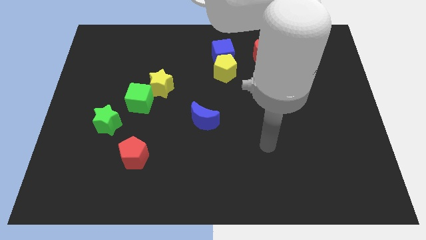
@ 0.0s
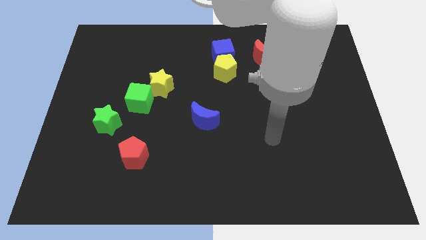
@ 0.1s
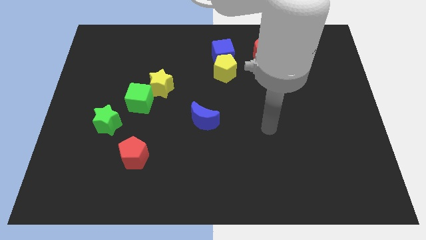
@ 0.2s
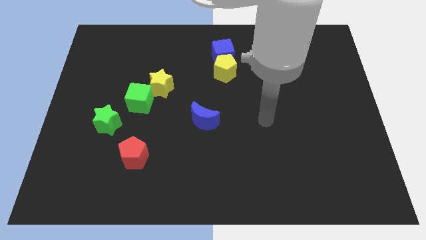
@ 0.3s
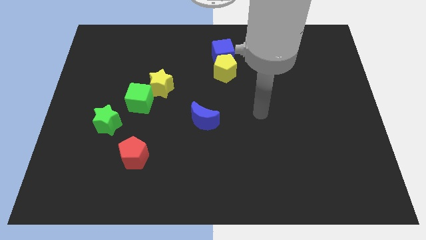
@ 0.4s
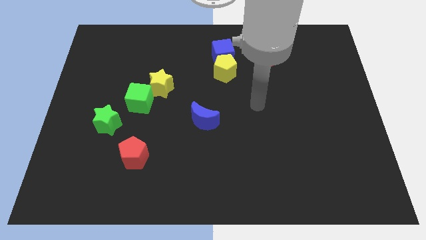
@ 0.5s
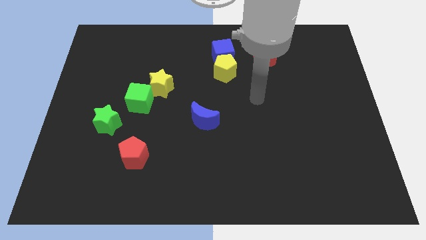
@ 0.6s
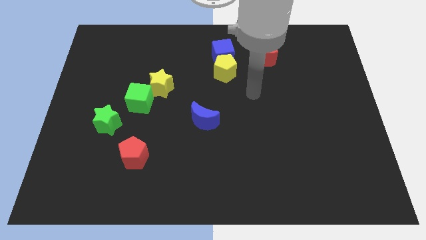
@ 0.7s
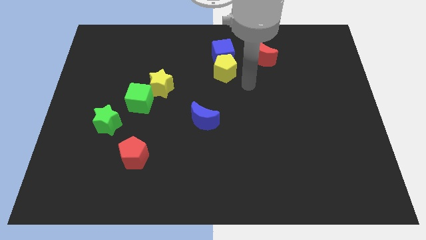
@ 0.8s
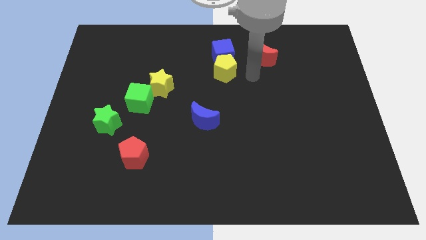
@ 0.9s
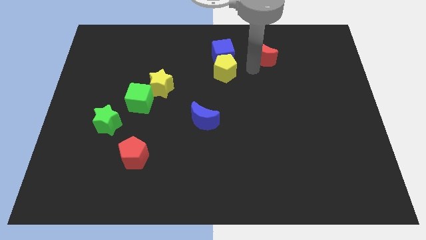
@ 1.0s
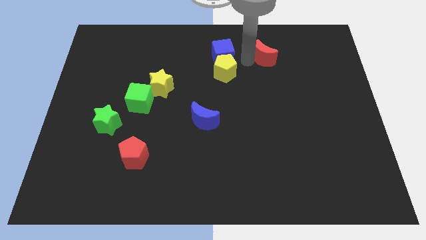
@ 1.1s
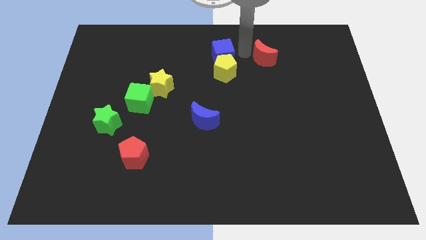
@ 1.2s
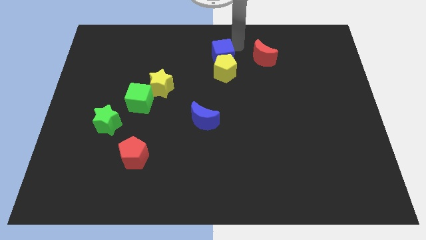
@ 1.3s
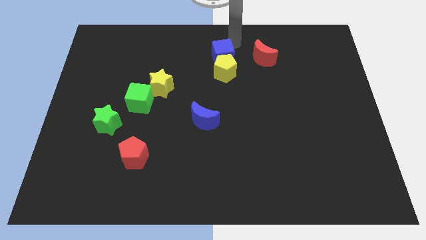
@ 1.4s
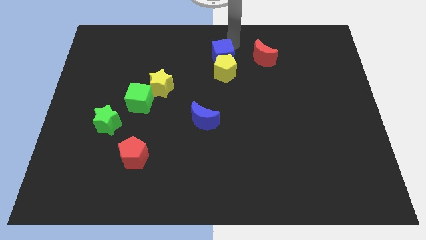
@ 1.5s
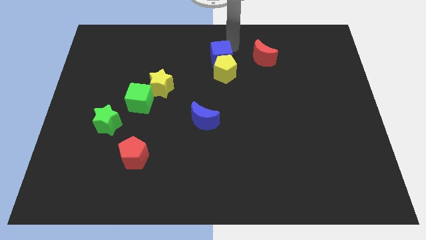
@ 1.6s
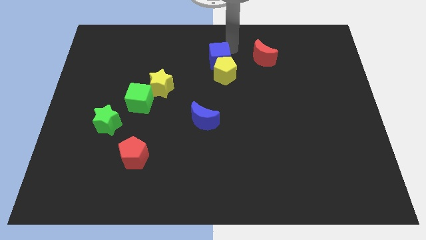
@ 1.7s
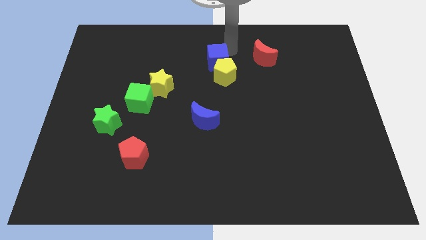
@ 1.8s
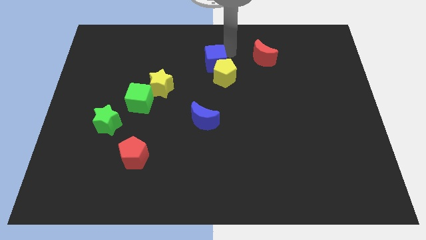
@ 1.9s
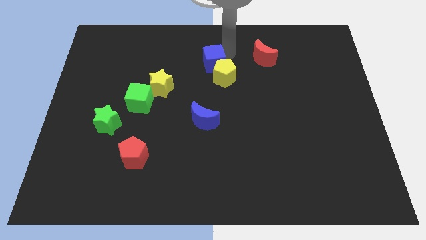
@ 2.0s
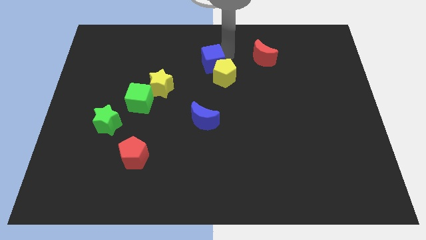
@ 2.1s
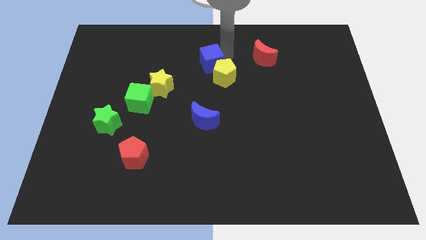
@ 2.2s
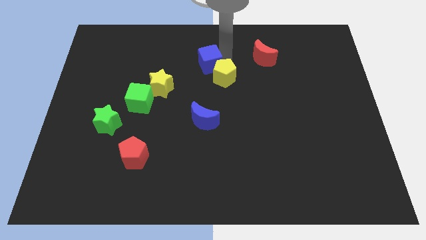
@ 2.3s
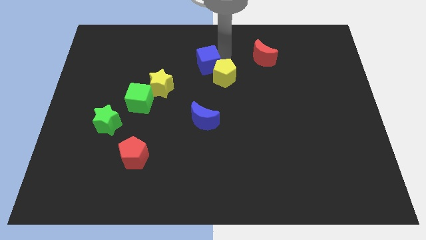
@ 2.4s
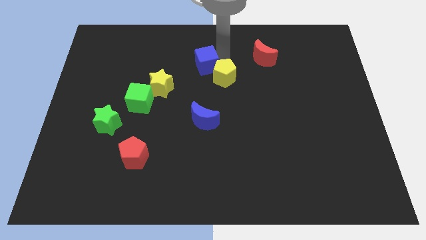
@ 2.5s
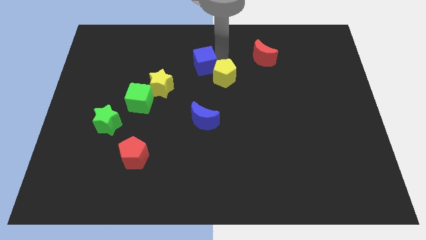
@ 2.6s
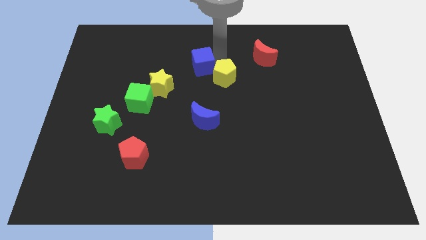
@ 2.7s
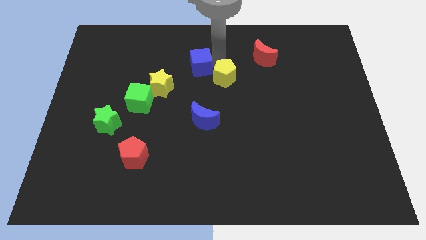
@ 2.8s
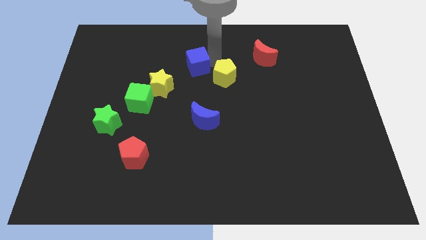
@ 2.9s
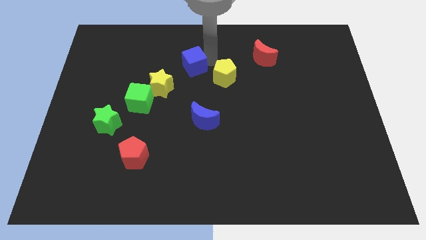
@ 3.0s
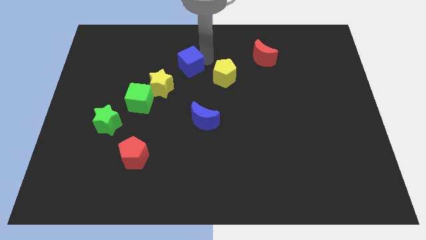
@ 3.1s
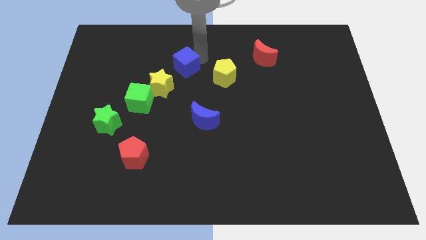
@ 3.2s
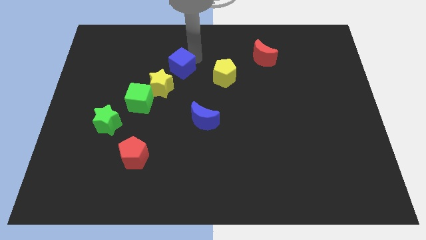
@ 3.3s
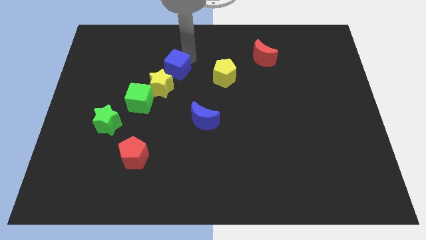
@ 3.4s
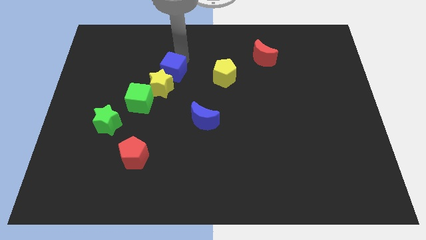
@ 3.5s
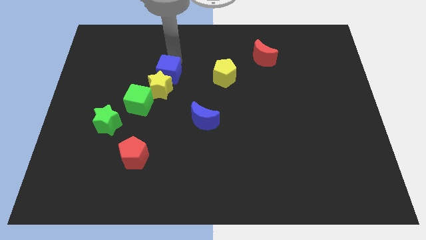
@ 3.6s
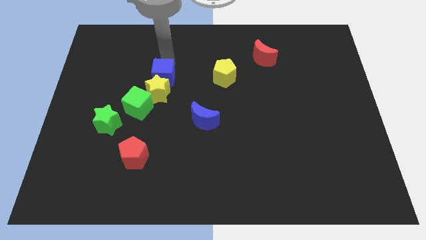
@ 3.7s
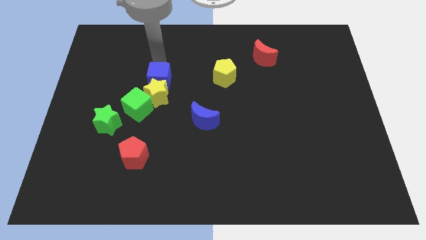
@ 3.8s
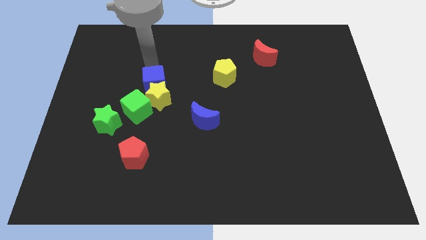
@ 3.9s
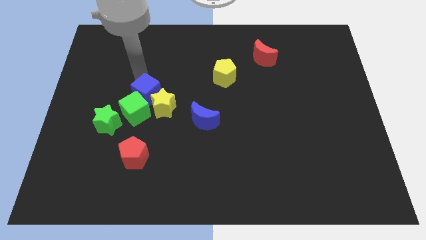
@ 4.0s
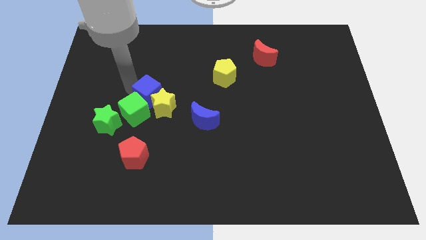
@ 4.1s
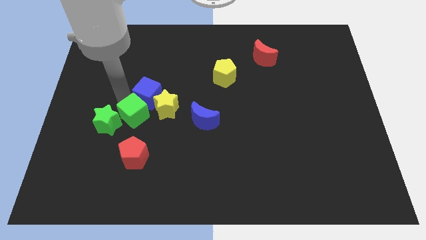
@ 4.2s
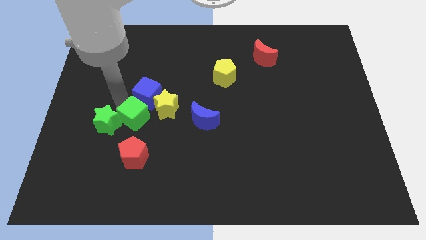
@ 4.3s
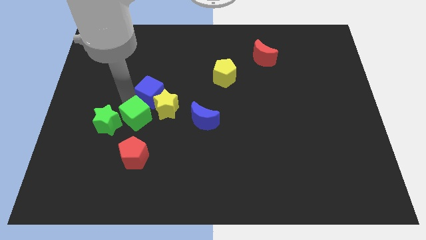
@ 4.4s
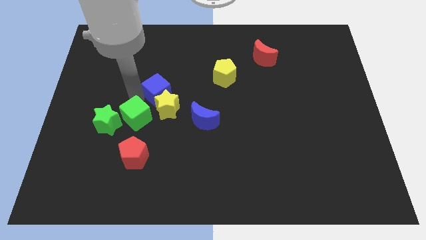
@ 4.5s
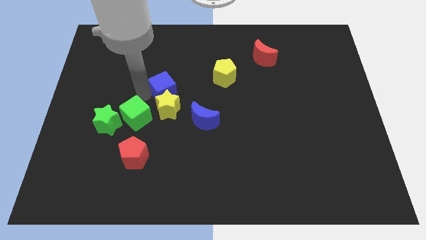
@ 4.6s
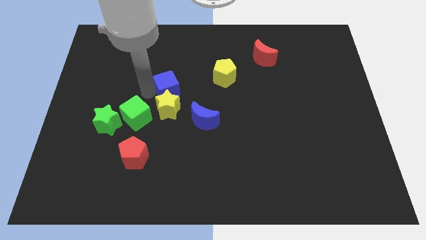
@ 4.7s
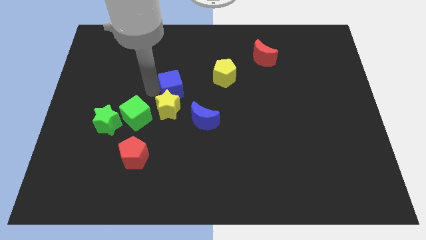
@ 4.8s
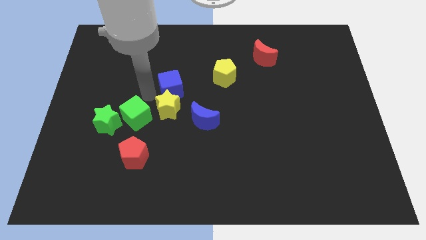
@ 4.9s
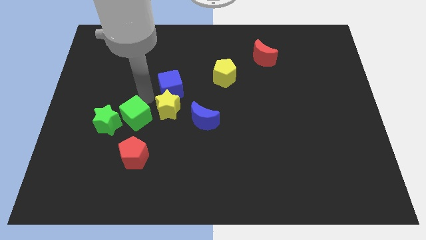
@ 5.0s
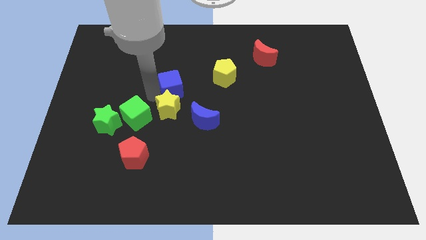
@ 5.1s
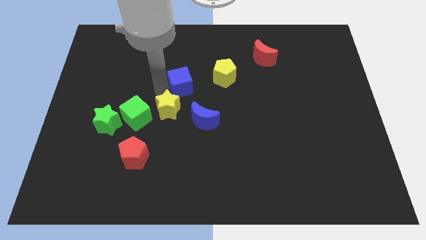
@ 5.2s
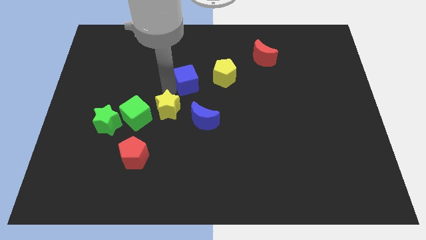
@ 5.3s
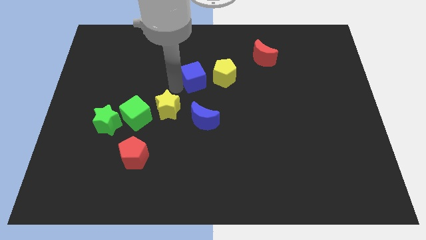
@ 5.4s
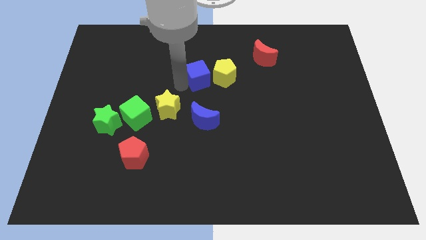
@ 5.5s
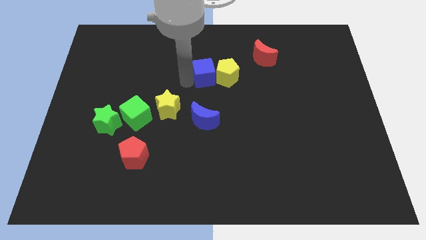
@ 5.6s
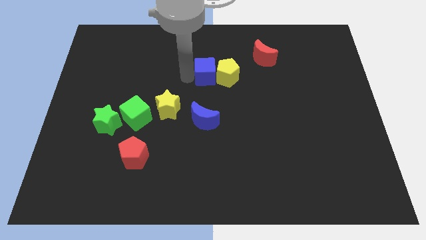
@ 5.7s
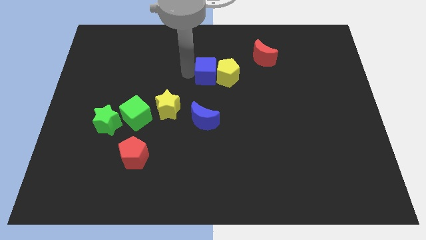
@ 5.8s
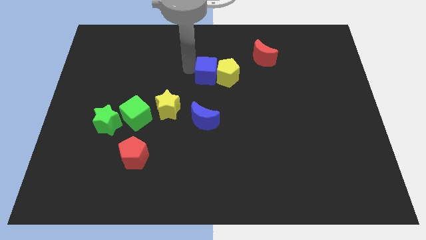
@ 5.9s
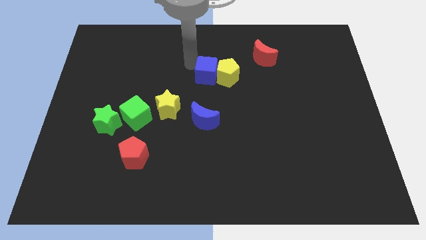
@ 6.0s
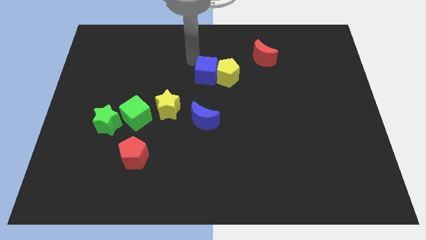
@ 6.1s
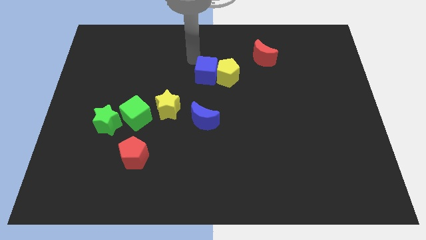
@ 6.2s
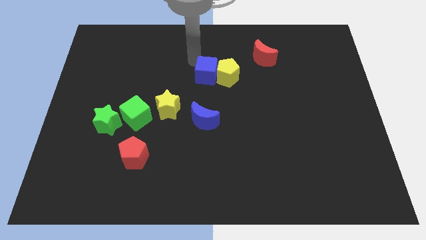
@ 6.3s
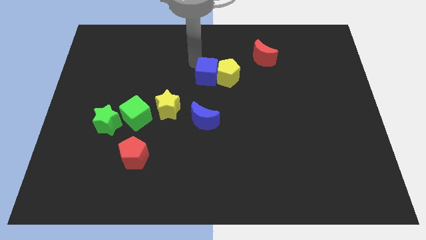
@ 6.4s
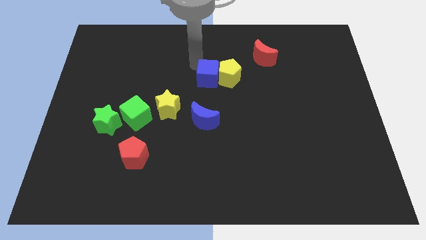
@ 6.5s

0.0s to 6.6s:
slightly push the blue cube down

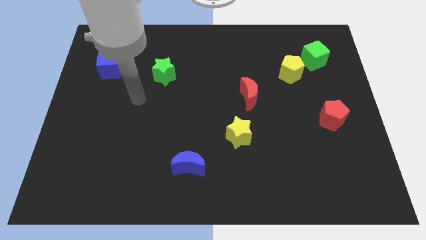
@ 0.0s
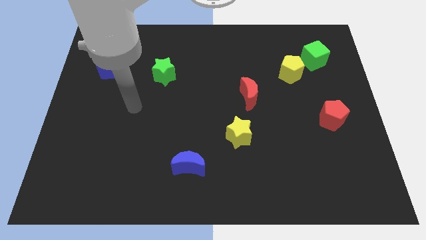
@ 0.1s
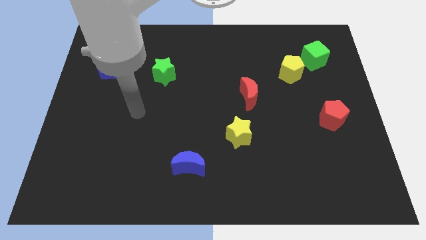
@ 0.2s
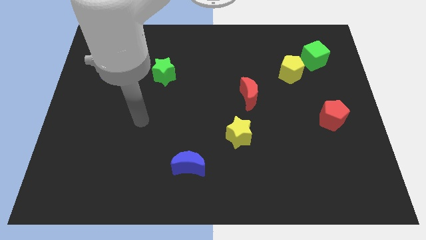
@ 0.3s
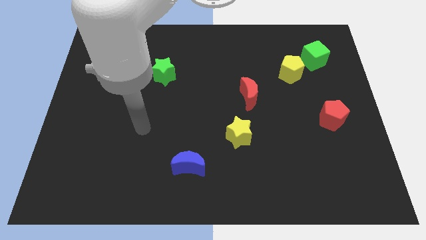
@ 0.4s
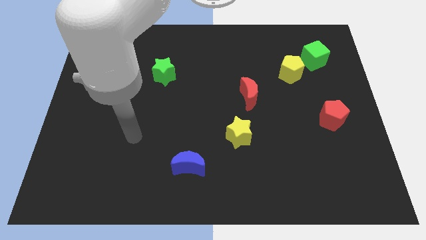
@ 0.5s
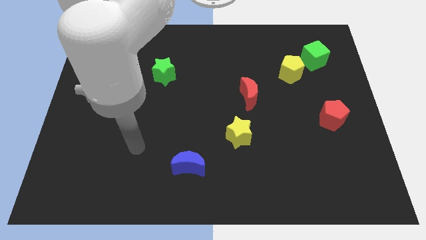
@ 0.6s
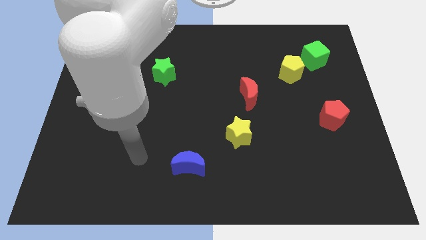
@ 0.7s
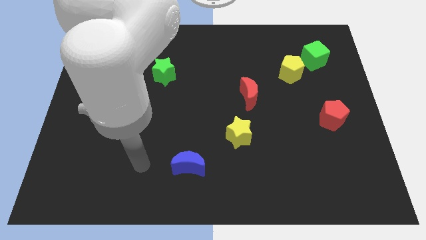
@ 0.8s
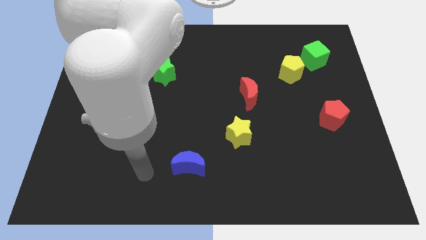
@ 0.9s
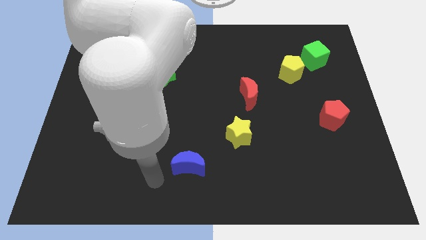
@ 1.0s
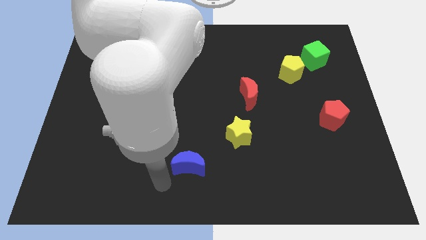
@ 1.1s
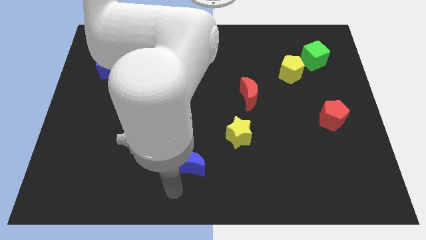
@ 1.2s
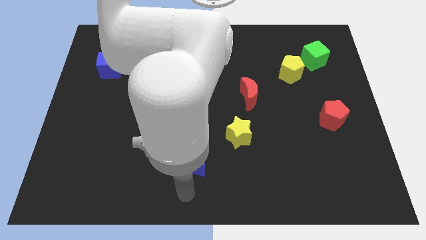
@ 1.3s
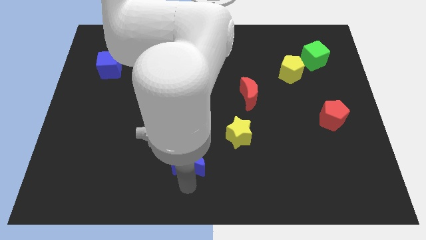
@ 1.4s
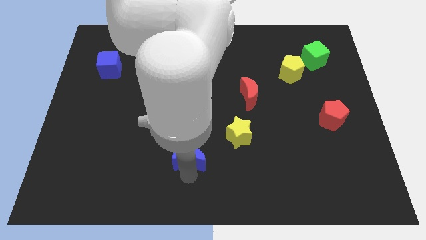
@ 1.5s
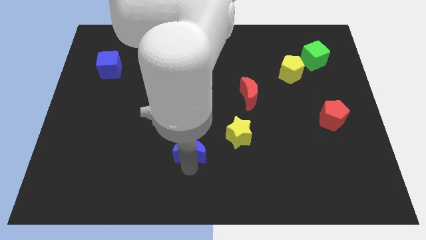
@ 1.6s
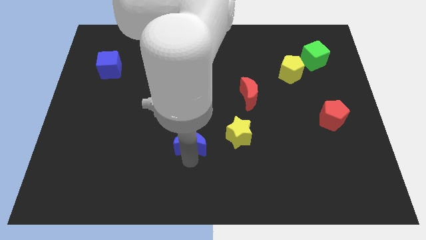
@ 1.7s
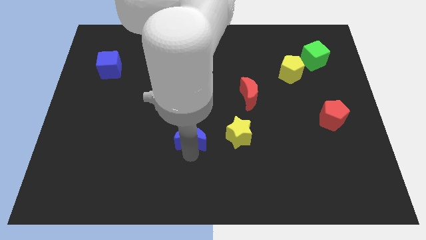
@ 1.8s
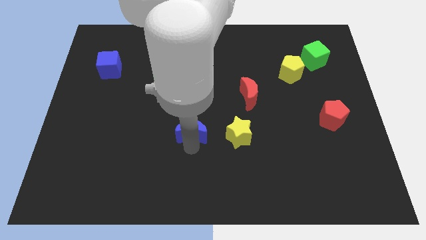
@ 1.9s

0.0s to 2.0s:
slightly move the blue moon up
